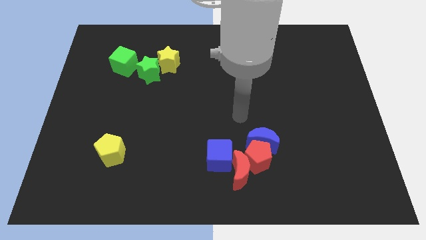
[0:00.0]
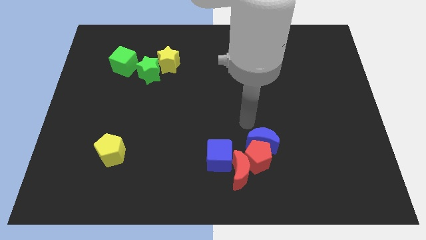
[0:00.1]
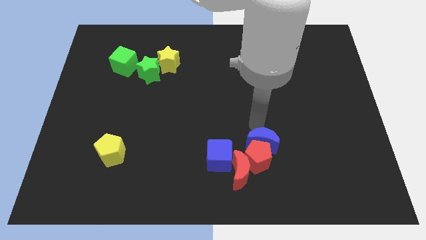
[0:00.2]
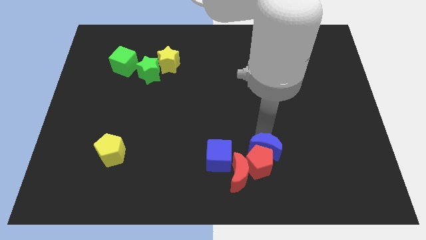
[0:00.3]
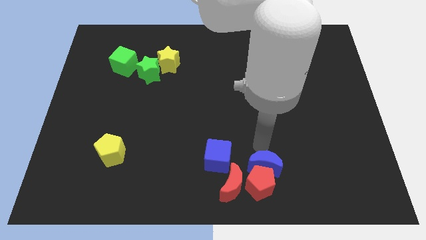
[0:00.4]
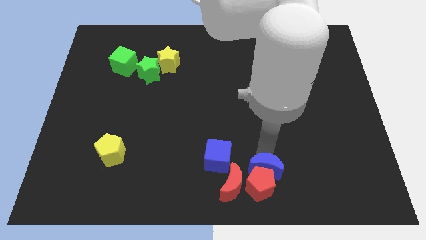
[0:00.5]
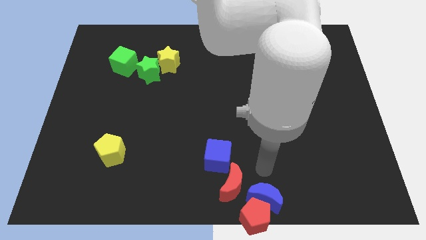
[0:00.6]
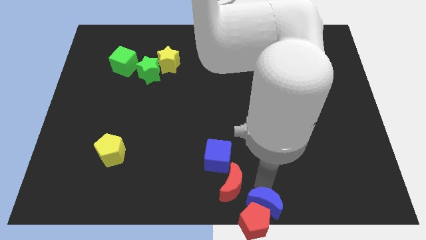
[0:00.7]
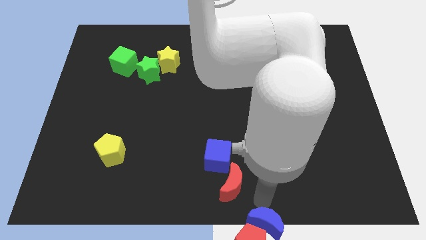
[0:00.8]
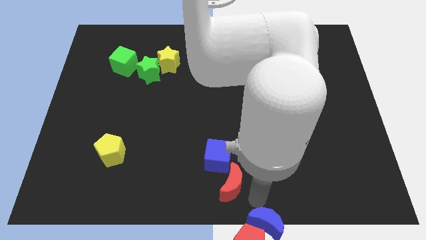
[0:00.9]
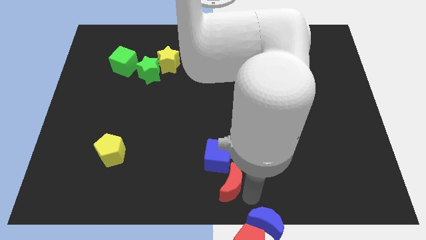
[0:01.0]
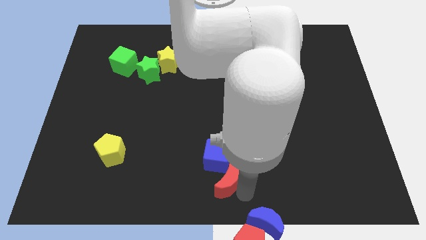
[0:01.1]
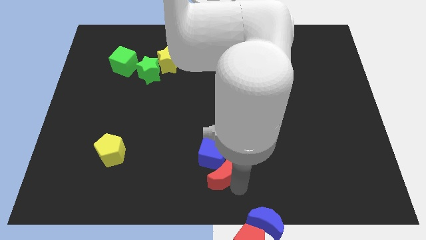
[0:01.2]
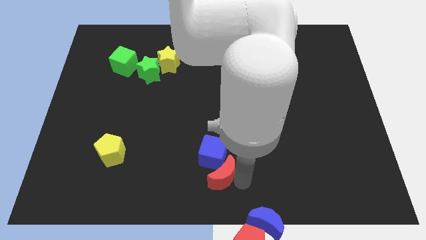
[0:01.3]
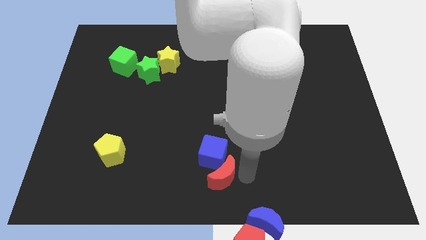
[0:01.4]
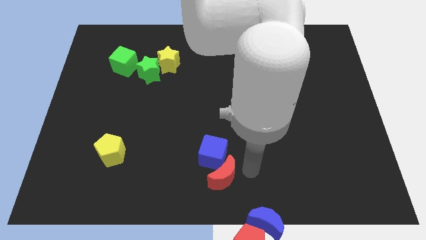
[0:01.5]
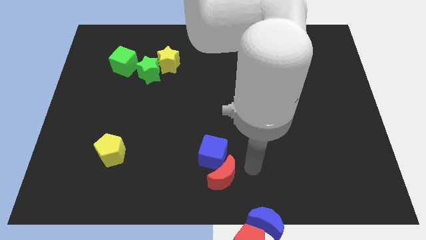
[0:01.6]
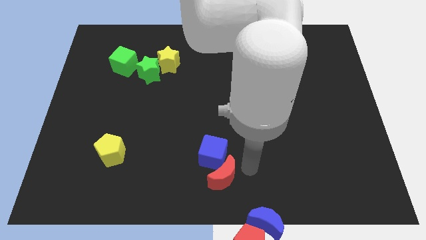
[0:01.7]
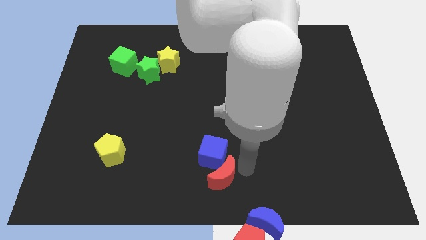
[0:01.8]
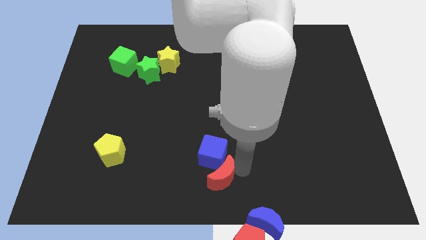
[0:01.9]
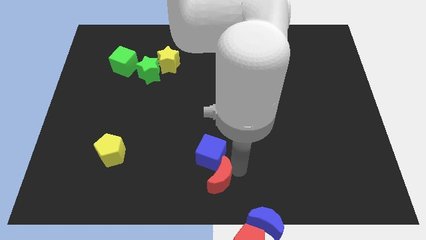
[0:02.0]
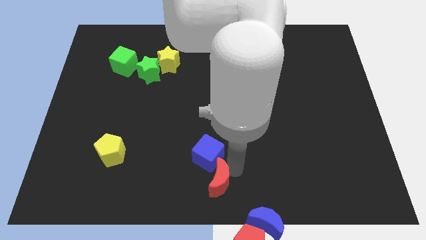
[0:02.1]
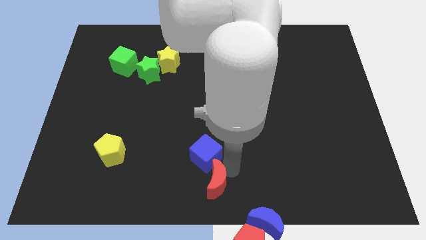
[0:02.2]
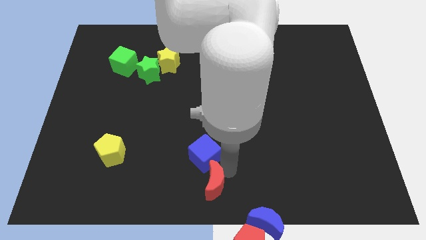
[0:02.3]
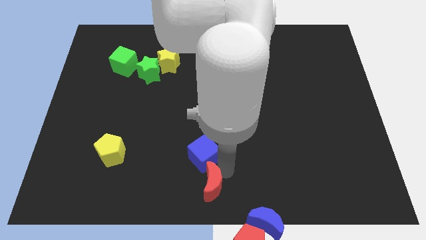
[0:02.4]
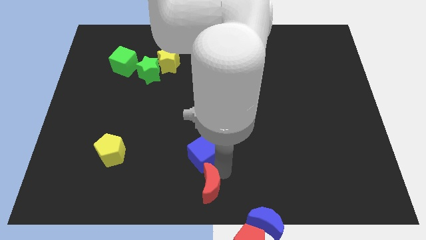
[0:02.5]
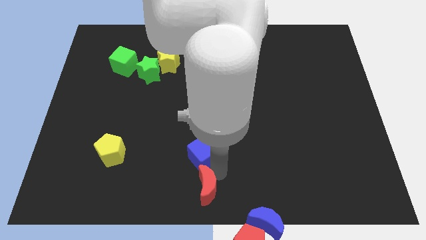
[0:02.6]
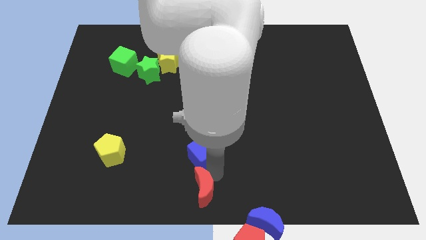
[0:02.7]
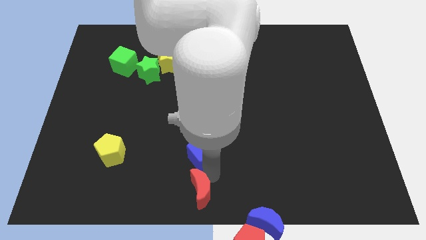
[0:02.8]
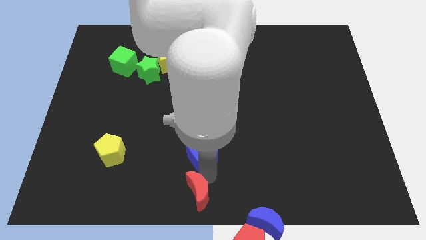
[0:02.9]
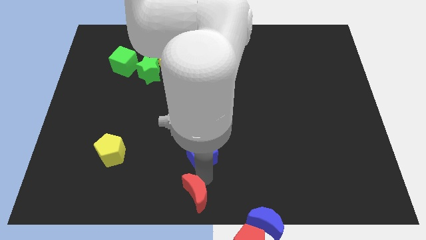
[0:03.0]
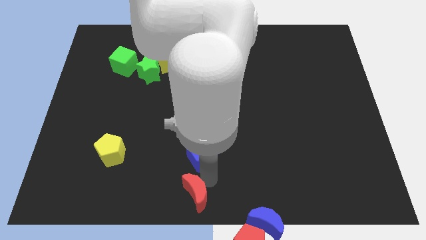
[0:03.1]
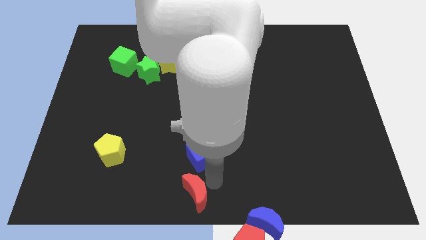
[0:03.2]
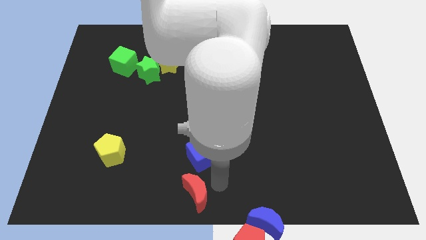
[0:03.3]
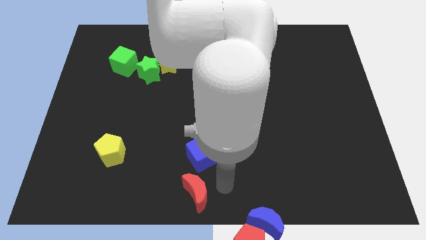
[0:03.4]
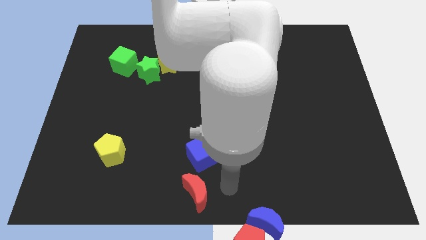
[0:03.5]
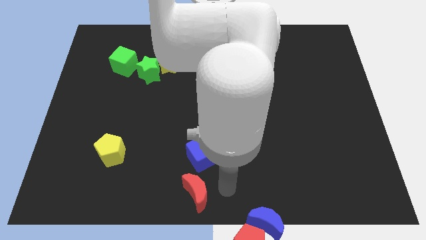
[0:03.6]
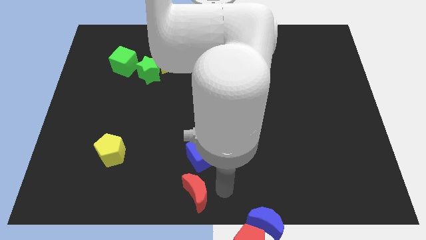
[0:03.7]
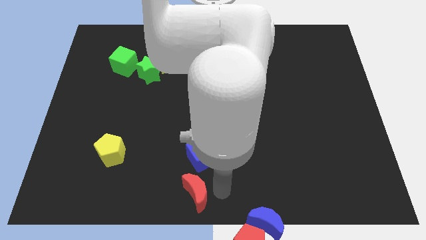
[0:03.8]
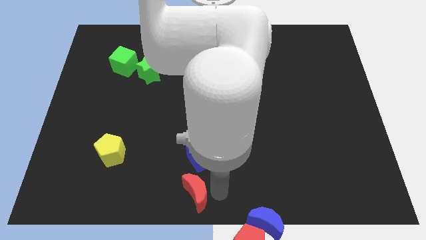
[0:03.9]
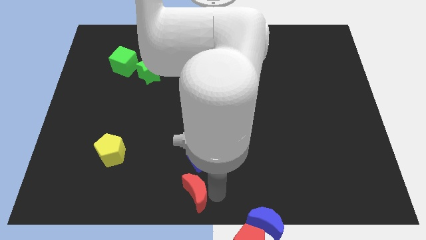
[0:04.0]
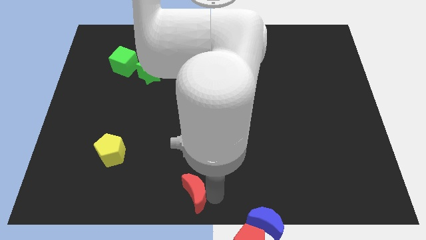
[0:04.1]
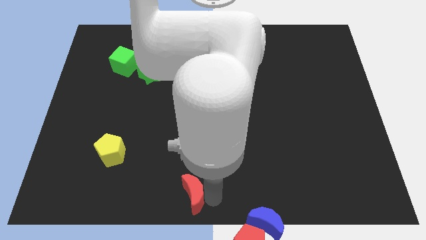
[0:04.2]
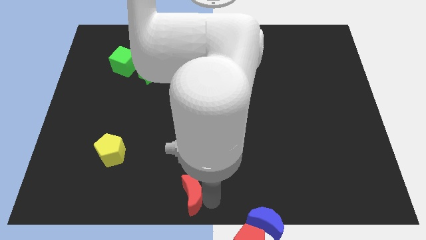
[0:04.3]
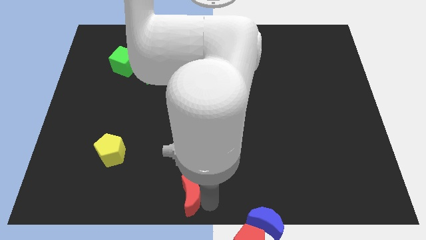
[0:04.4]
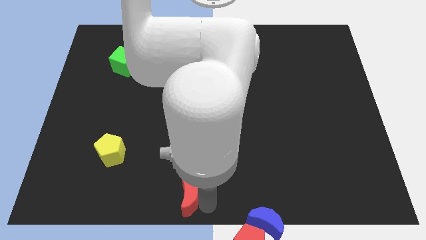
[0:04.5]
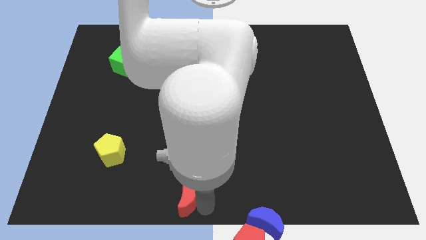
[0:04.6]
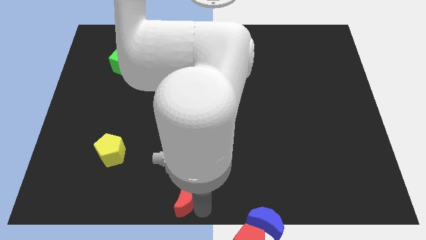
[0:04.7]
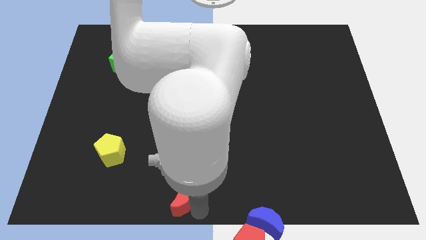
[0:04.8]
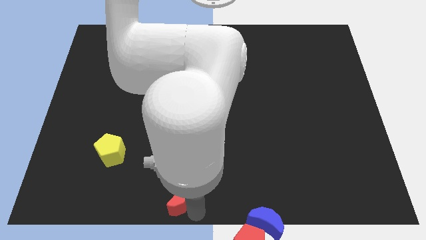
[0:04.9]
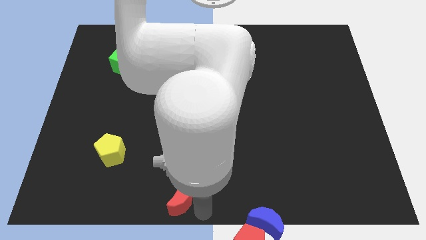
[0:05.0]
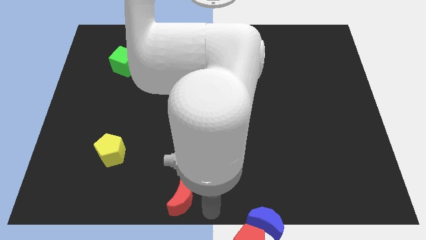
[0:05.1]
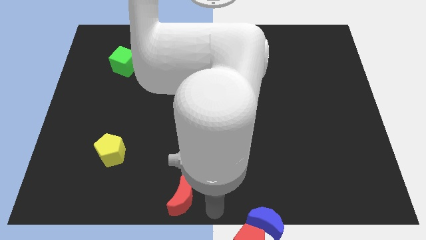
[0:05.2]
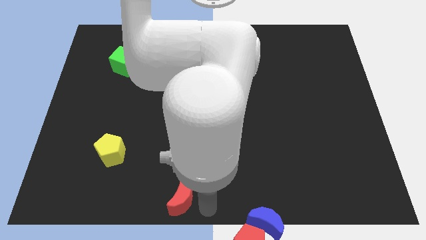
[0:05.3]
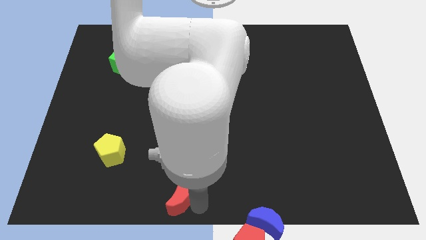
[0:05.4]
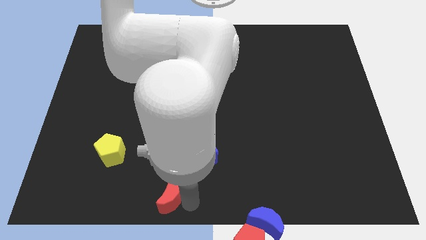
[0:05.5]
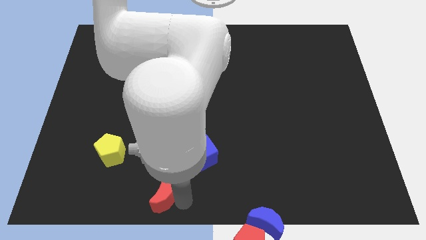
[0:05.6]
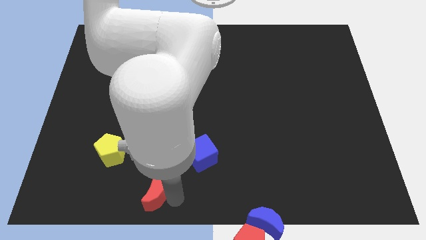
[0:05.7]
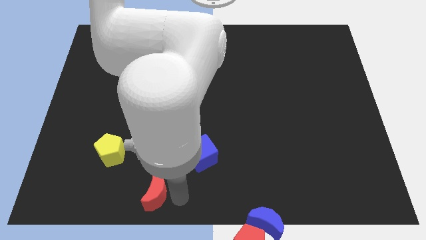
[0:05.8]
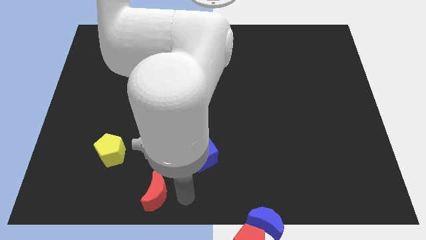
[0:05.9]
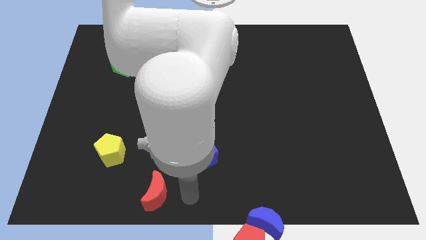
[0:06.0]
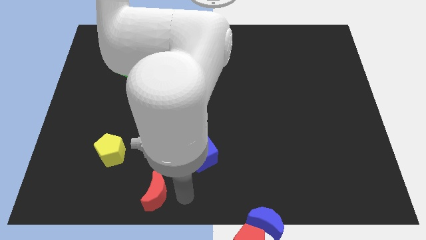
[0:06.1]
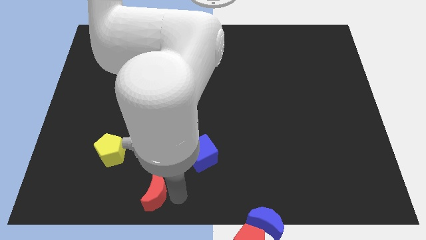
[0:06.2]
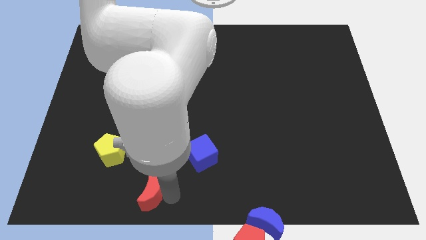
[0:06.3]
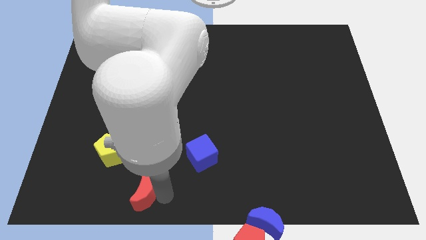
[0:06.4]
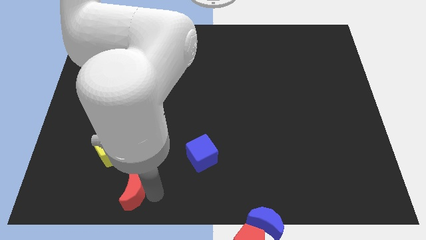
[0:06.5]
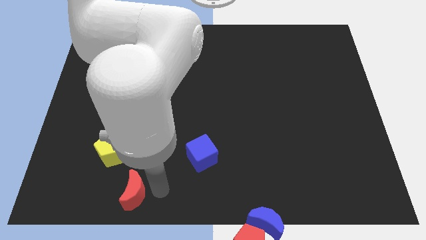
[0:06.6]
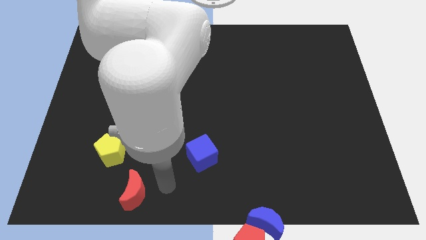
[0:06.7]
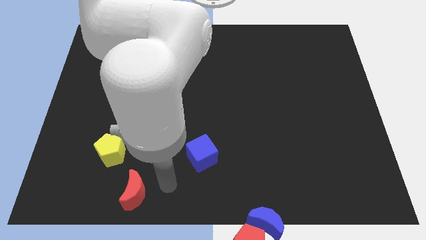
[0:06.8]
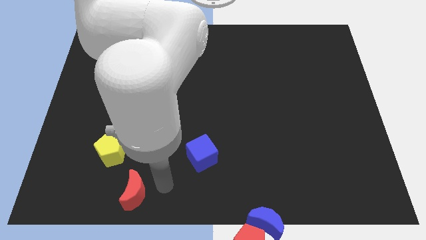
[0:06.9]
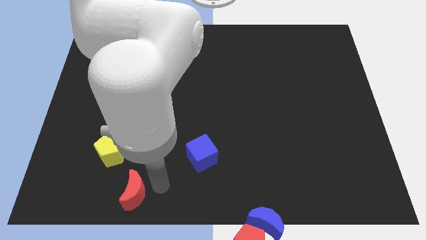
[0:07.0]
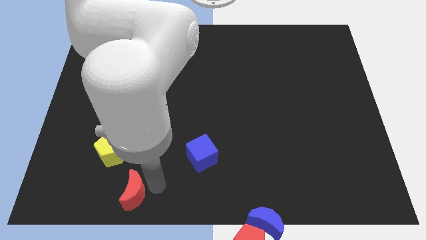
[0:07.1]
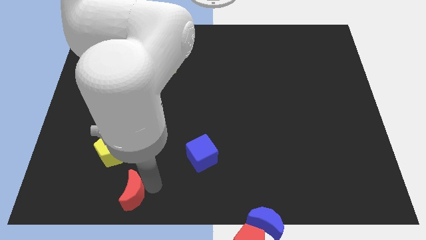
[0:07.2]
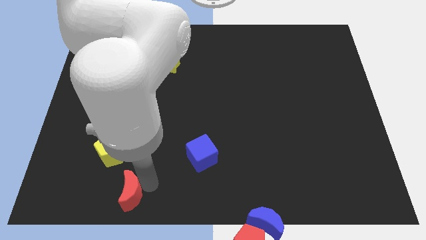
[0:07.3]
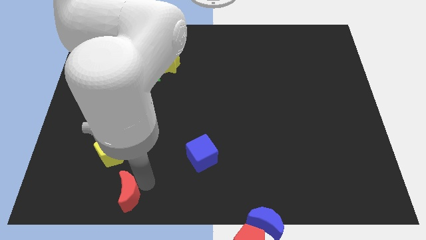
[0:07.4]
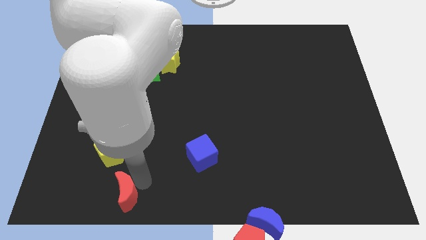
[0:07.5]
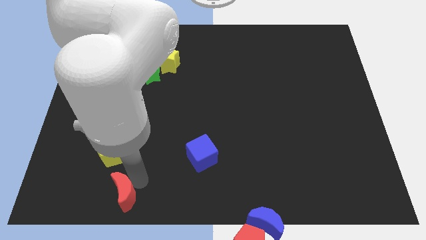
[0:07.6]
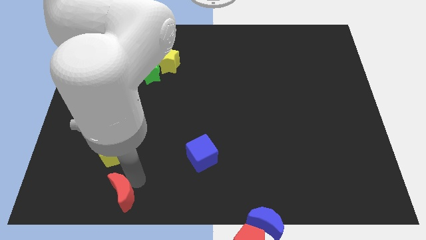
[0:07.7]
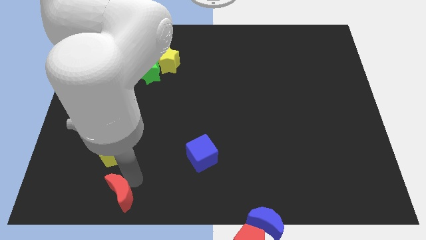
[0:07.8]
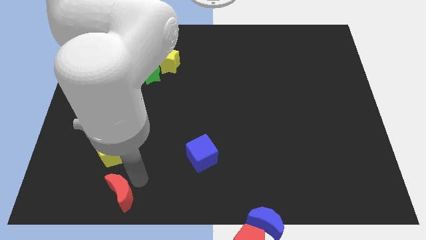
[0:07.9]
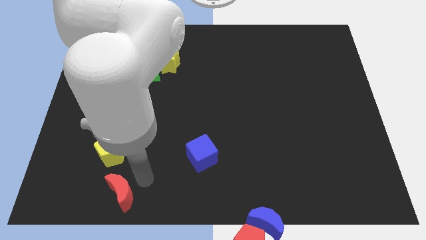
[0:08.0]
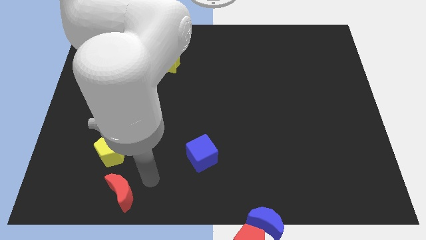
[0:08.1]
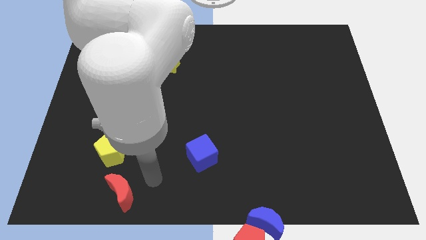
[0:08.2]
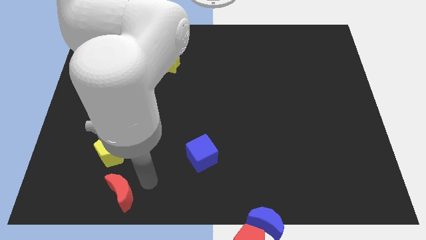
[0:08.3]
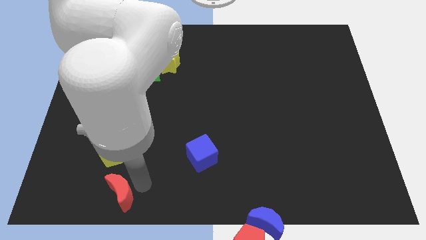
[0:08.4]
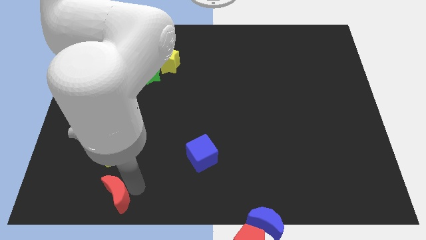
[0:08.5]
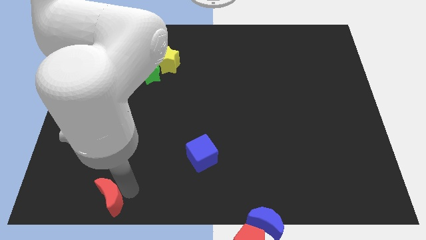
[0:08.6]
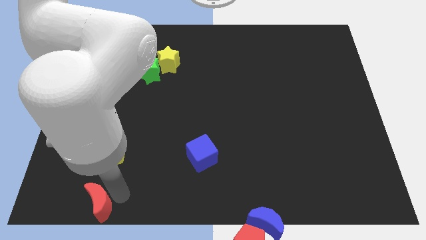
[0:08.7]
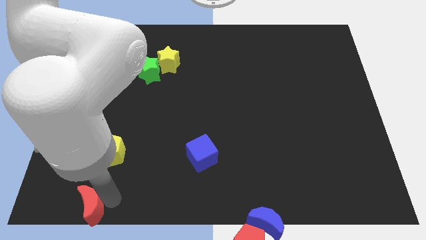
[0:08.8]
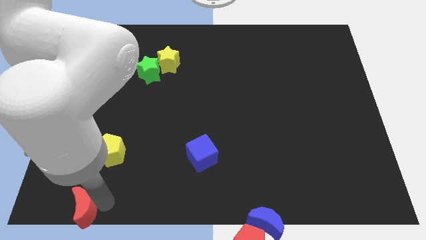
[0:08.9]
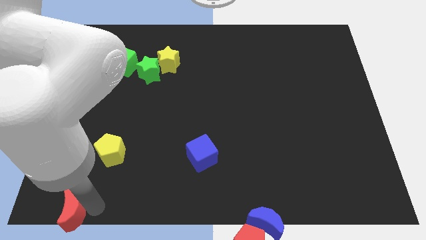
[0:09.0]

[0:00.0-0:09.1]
slide the red moon to the bottom left corner
